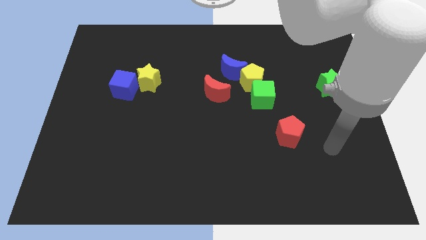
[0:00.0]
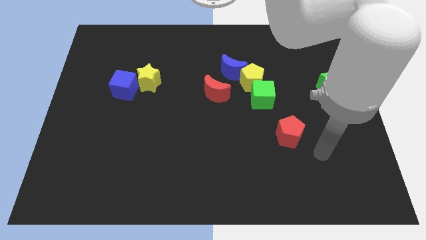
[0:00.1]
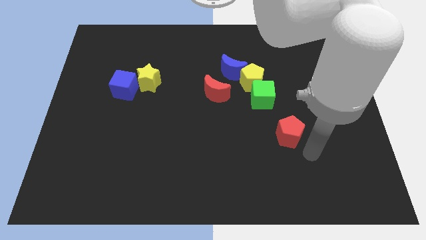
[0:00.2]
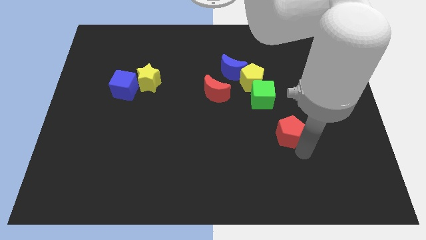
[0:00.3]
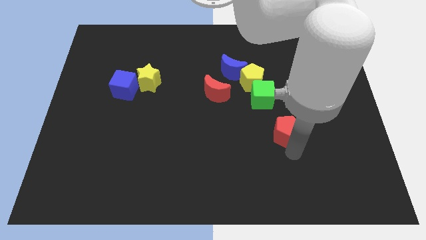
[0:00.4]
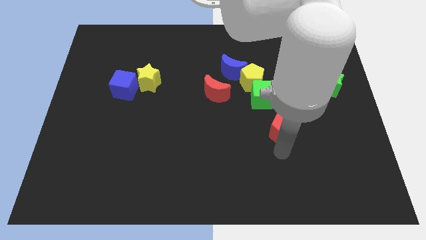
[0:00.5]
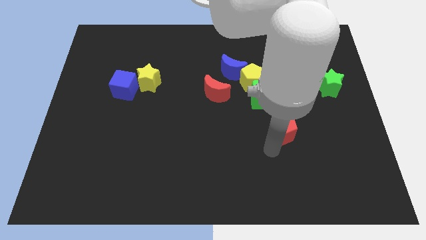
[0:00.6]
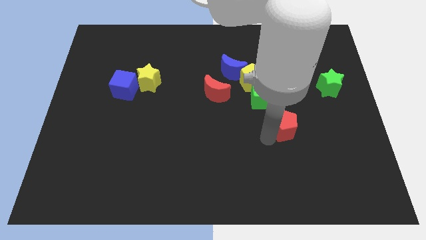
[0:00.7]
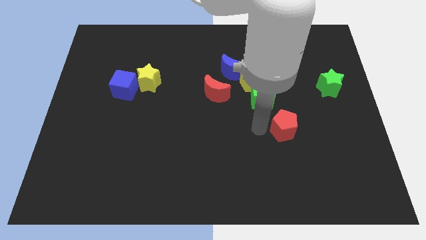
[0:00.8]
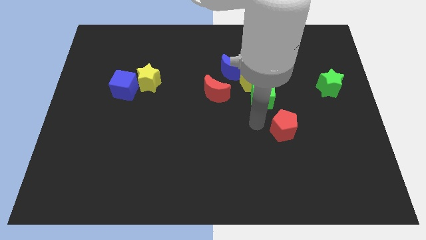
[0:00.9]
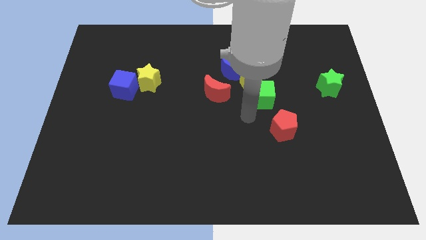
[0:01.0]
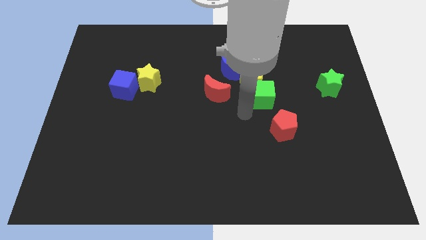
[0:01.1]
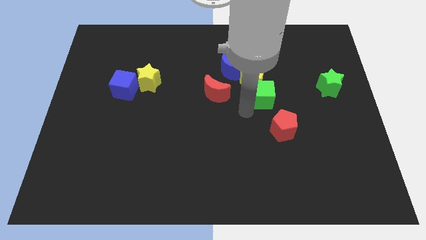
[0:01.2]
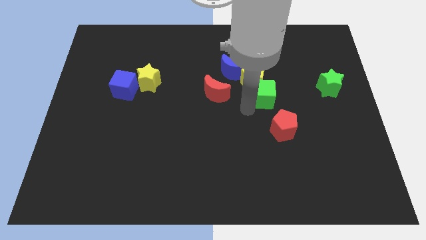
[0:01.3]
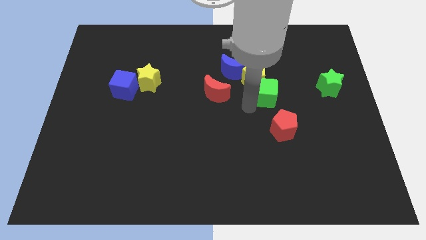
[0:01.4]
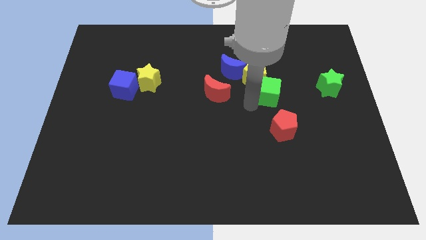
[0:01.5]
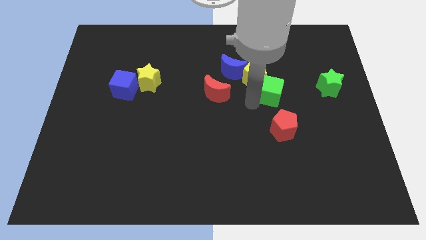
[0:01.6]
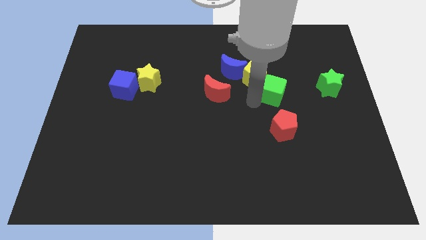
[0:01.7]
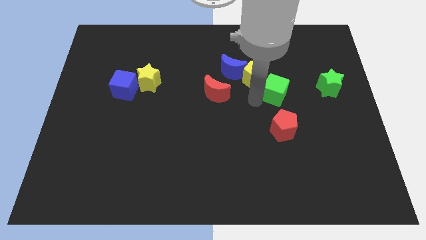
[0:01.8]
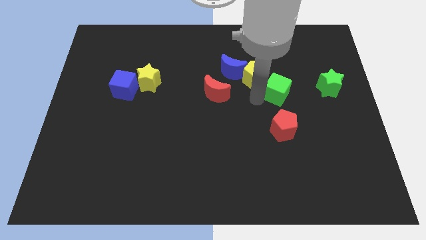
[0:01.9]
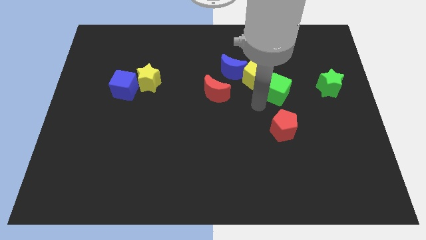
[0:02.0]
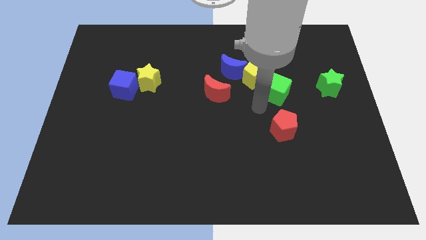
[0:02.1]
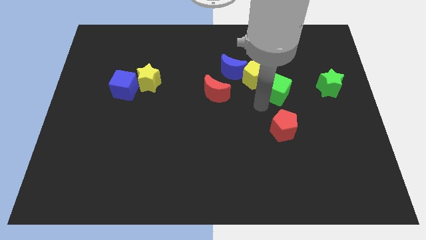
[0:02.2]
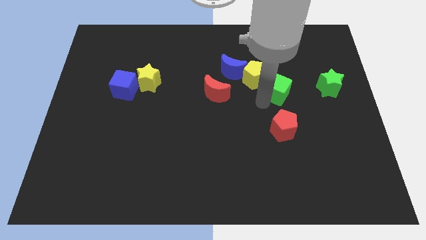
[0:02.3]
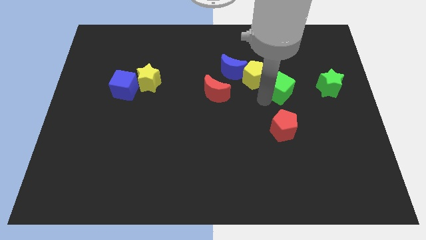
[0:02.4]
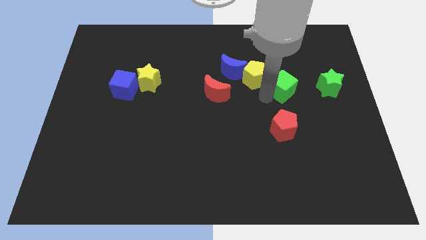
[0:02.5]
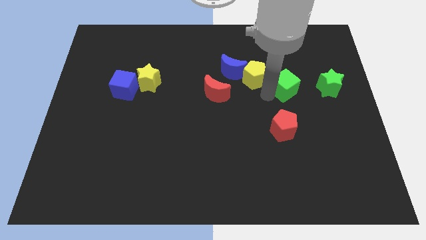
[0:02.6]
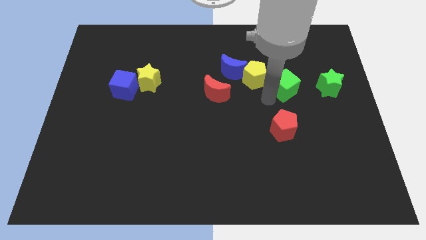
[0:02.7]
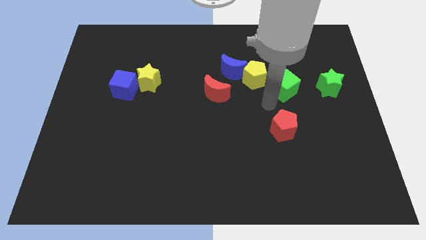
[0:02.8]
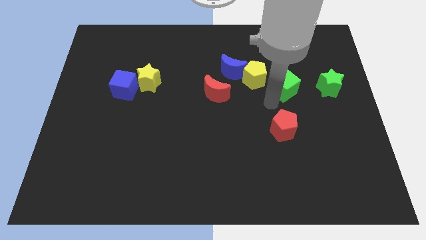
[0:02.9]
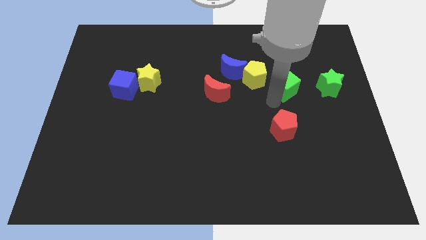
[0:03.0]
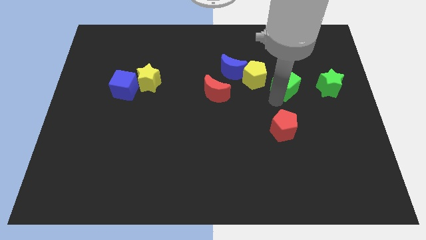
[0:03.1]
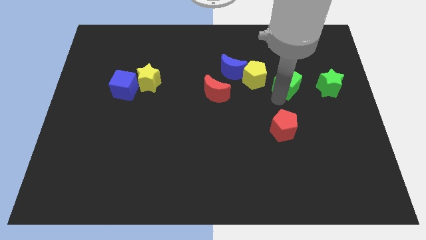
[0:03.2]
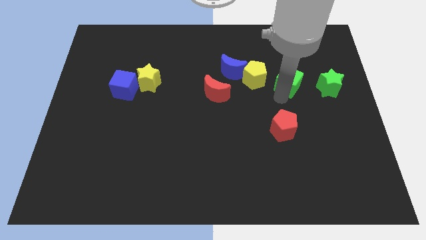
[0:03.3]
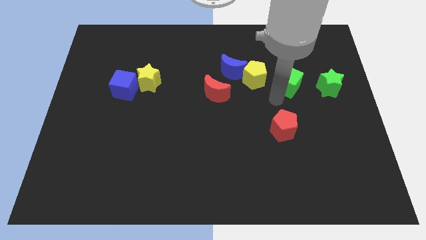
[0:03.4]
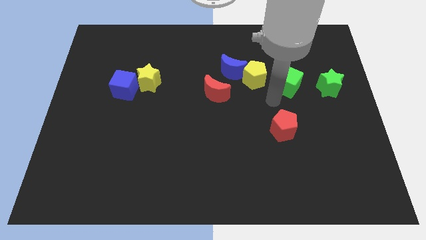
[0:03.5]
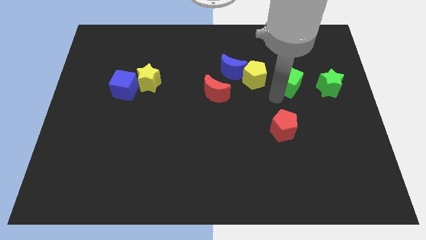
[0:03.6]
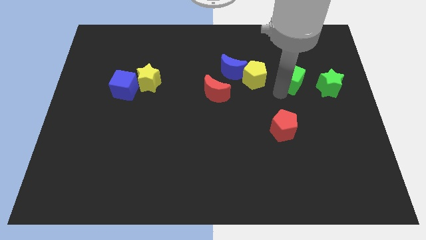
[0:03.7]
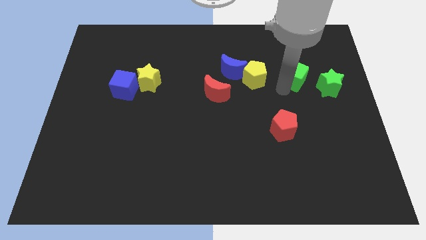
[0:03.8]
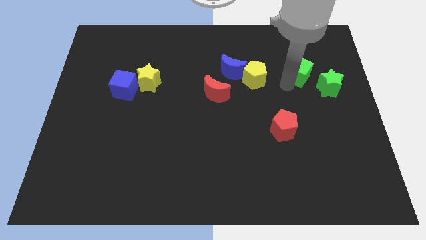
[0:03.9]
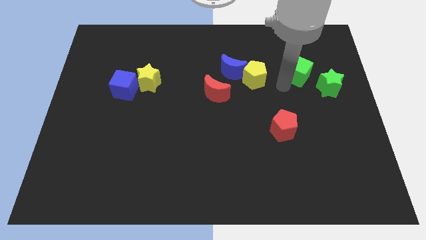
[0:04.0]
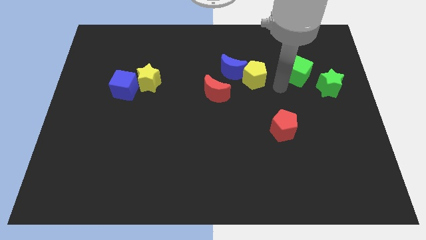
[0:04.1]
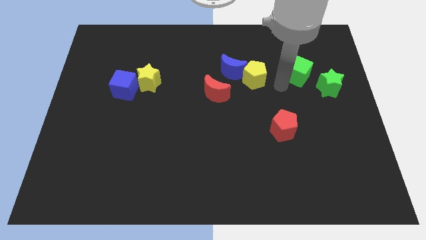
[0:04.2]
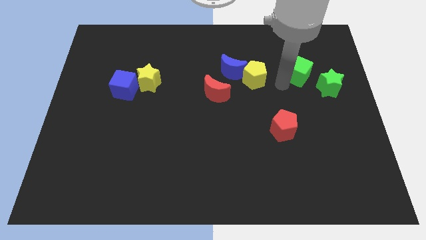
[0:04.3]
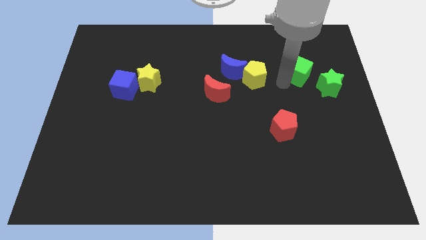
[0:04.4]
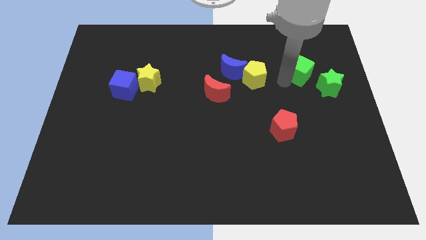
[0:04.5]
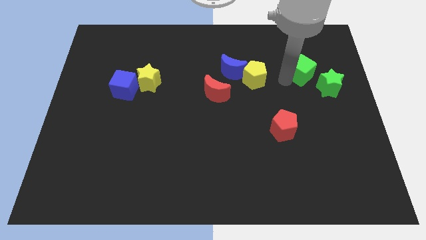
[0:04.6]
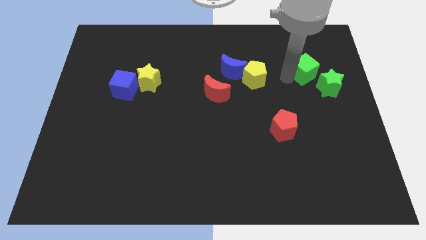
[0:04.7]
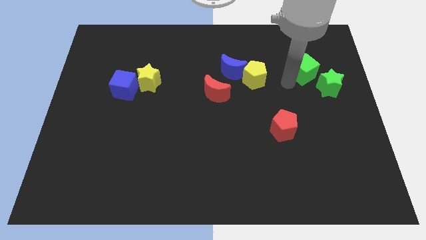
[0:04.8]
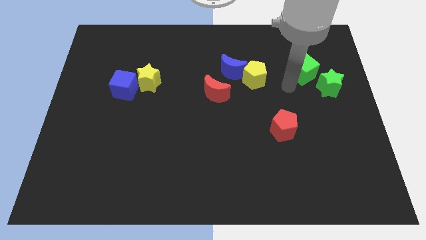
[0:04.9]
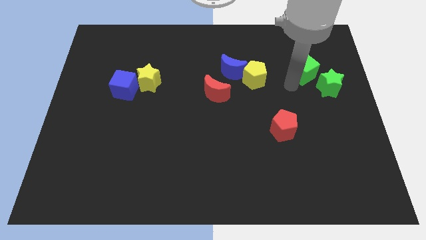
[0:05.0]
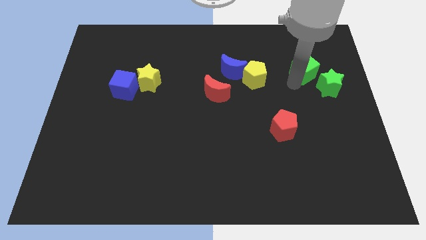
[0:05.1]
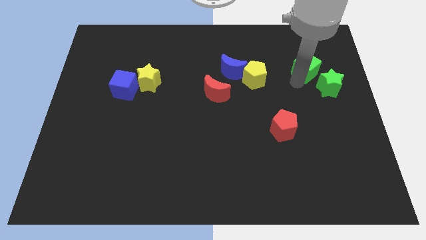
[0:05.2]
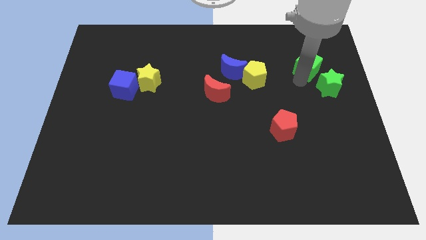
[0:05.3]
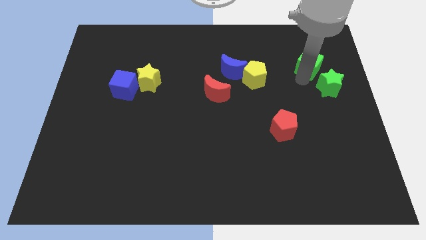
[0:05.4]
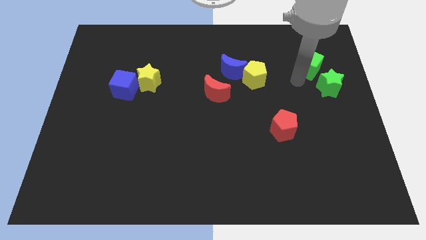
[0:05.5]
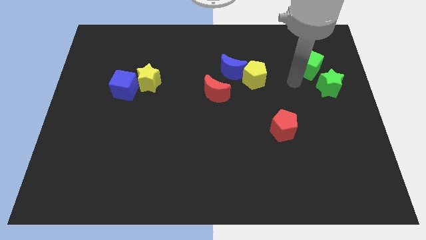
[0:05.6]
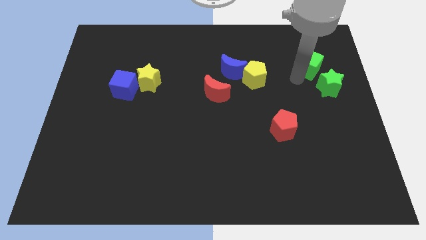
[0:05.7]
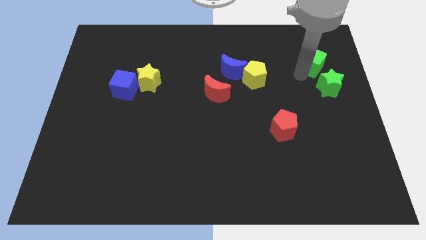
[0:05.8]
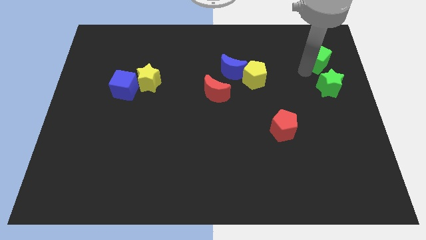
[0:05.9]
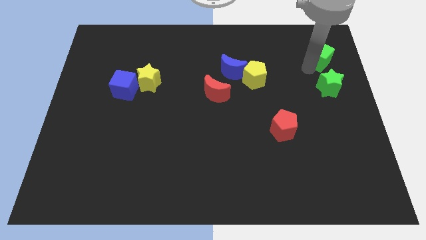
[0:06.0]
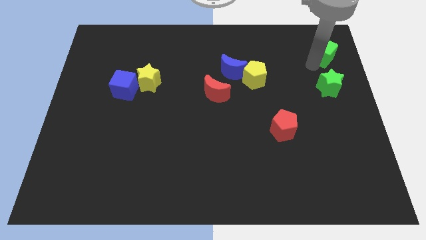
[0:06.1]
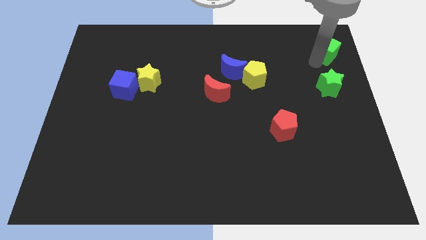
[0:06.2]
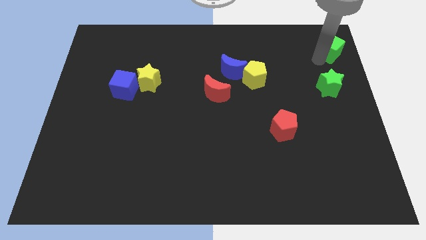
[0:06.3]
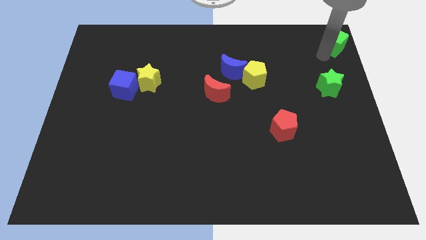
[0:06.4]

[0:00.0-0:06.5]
push the green cube to the upper right corner

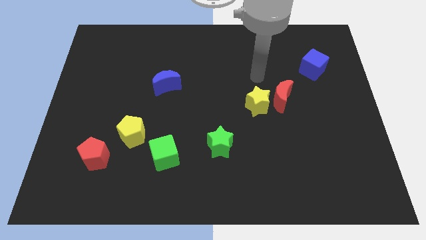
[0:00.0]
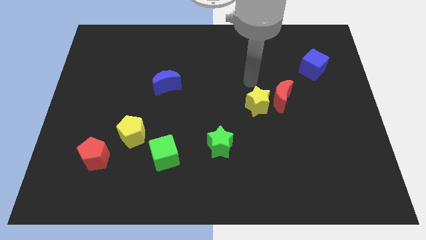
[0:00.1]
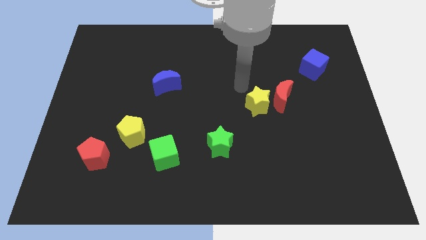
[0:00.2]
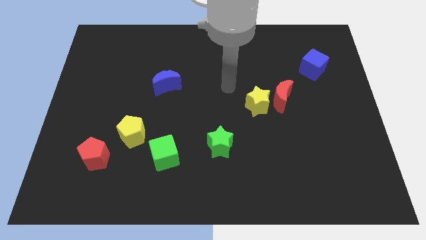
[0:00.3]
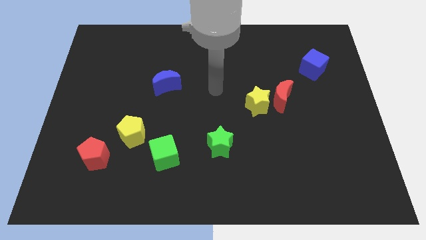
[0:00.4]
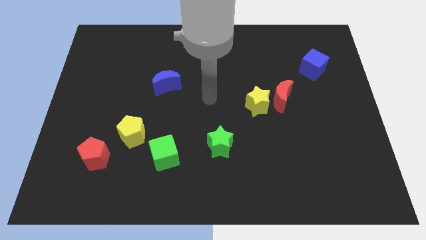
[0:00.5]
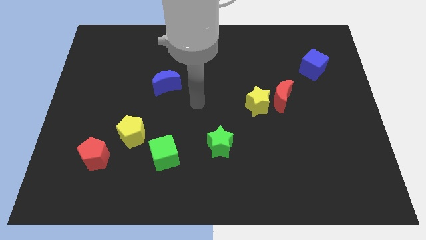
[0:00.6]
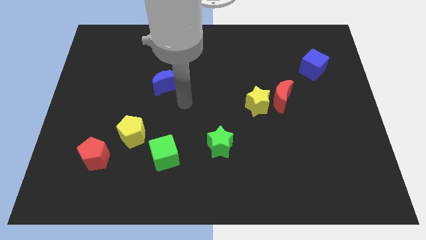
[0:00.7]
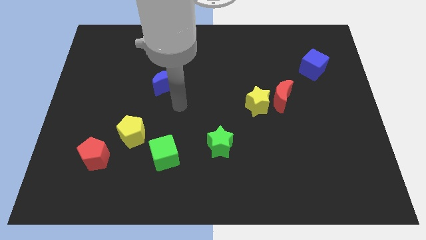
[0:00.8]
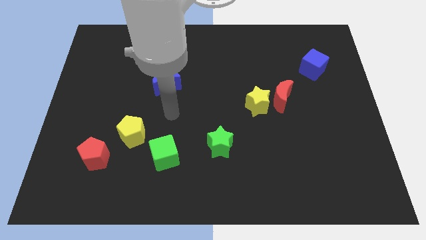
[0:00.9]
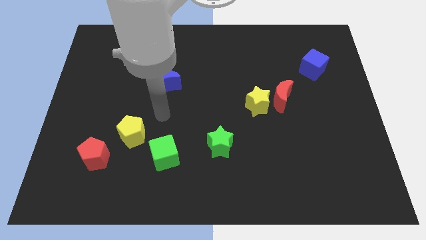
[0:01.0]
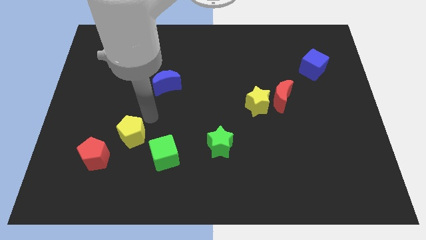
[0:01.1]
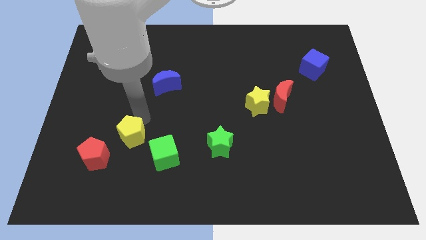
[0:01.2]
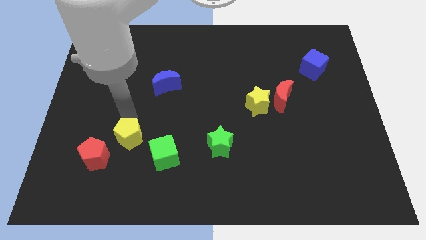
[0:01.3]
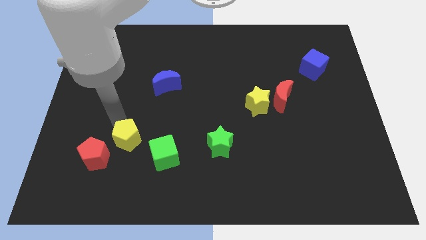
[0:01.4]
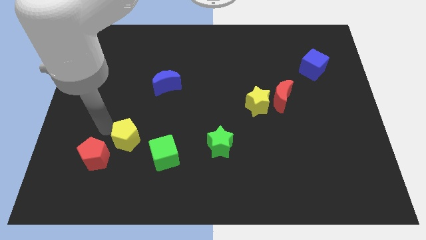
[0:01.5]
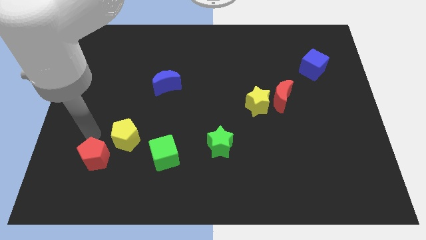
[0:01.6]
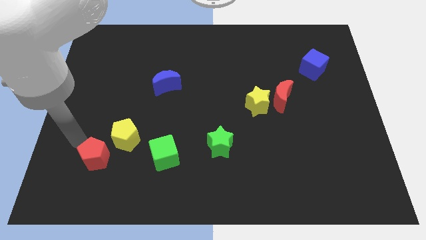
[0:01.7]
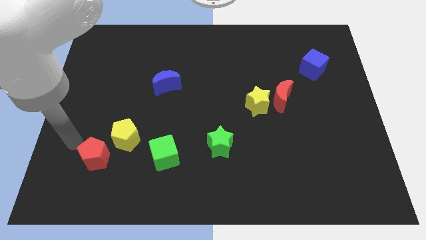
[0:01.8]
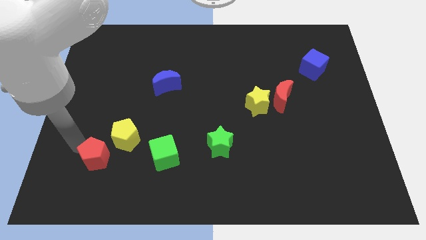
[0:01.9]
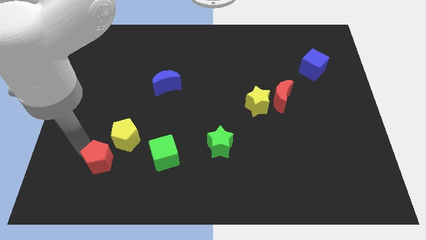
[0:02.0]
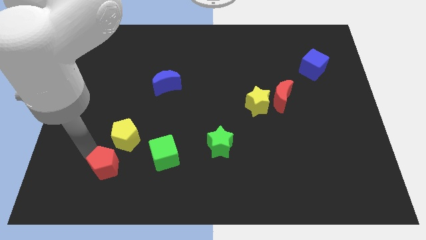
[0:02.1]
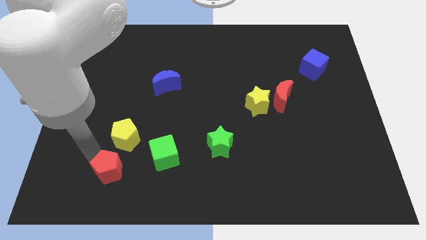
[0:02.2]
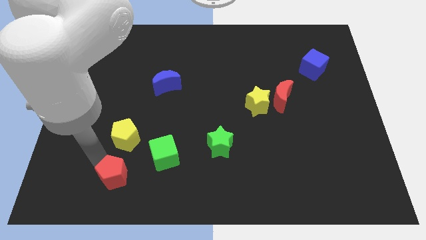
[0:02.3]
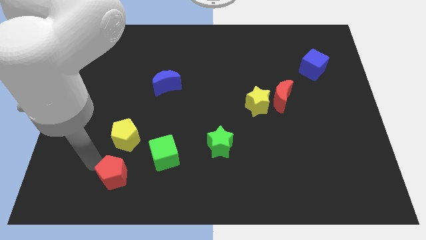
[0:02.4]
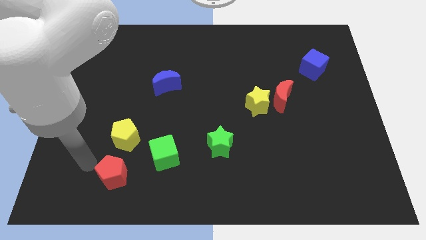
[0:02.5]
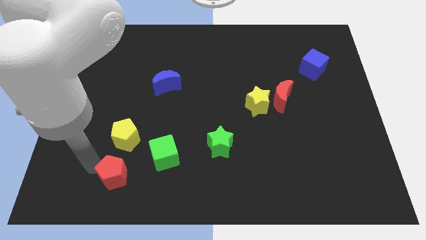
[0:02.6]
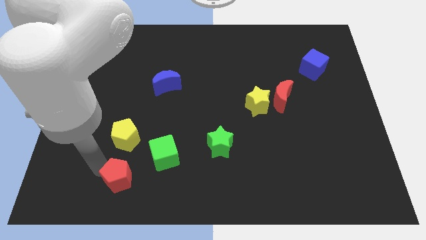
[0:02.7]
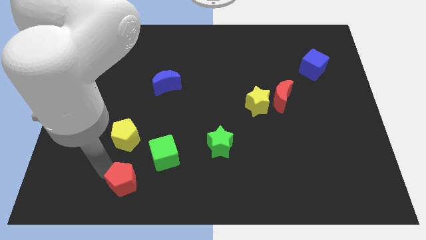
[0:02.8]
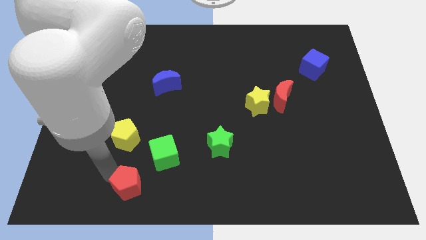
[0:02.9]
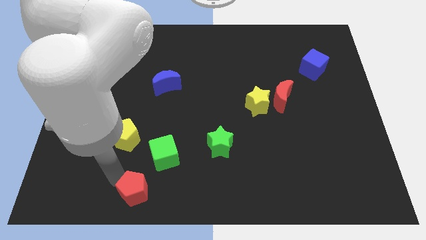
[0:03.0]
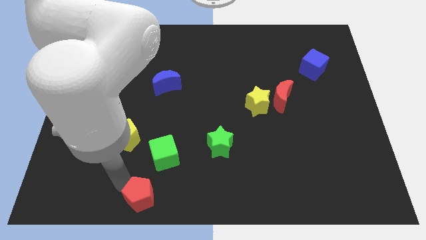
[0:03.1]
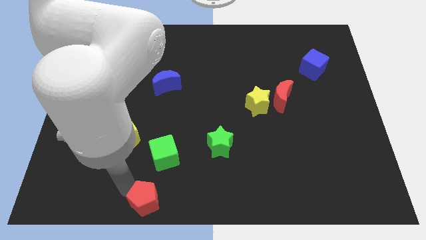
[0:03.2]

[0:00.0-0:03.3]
put the red pentagon to the bottom
